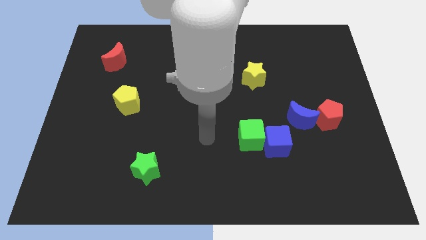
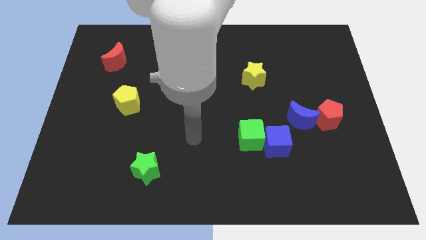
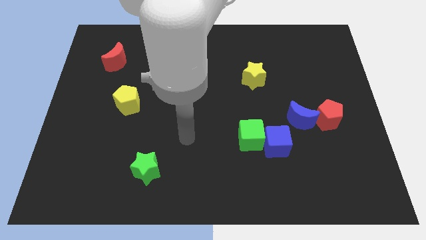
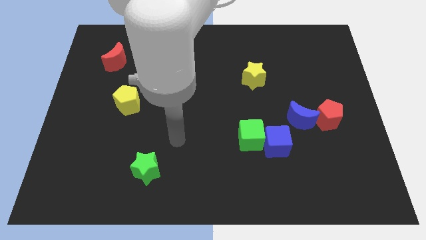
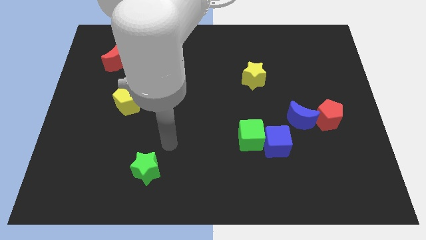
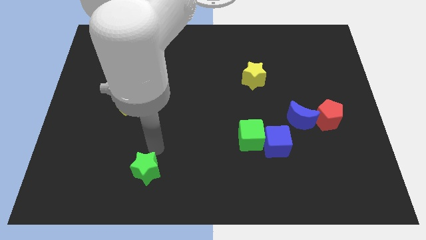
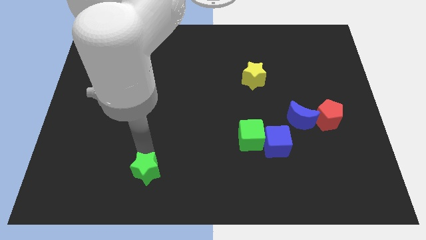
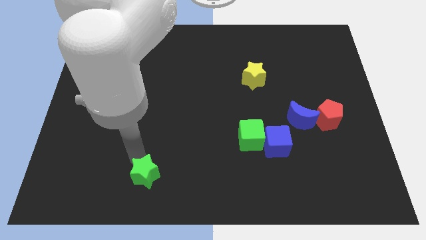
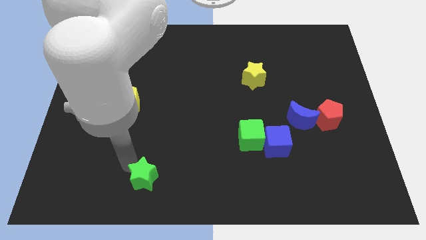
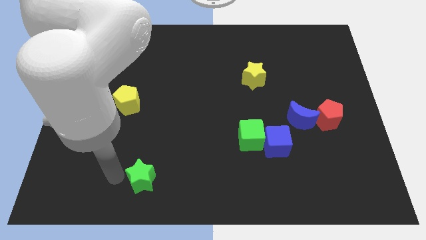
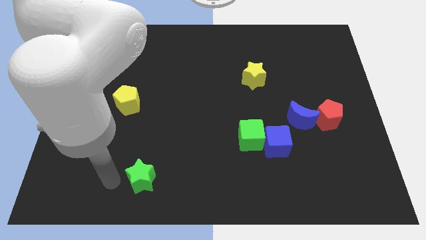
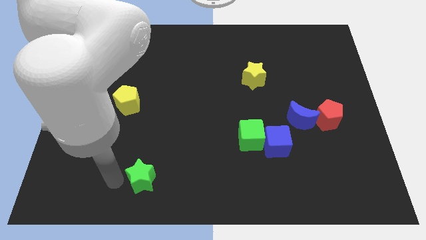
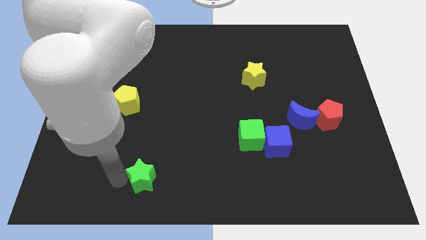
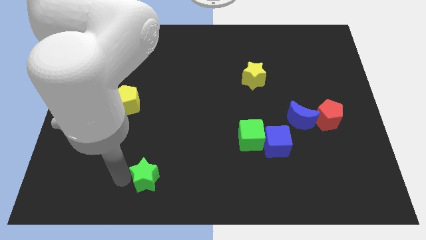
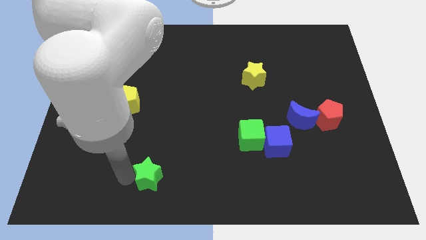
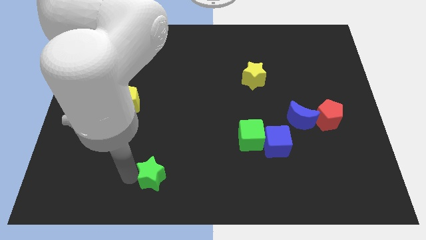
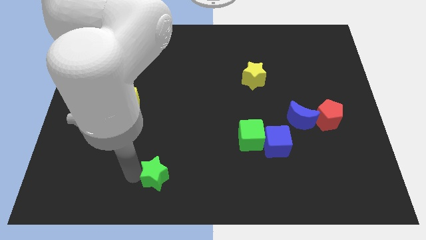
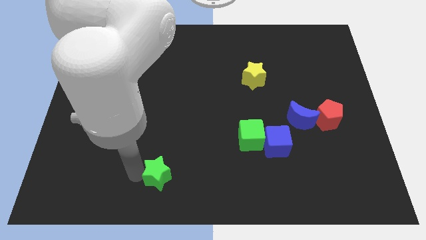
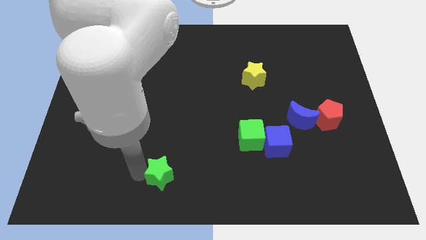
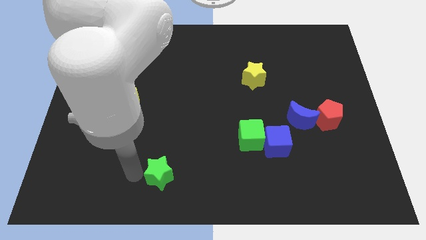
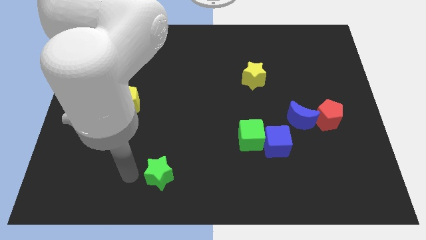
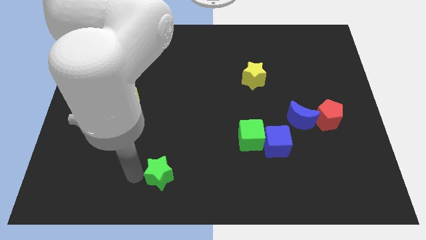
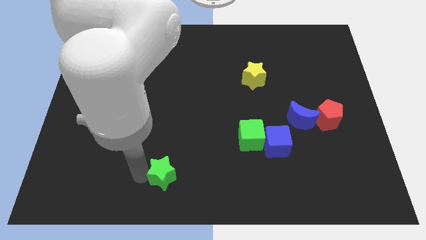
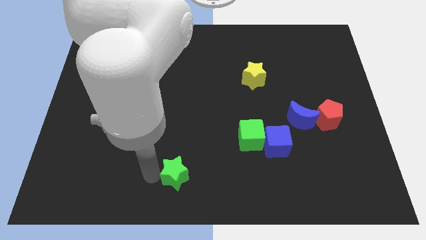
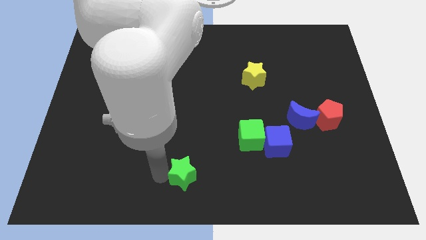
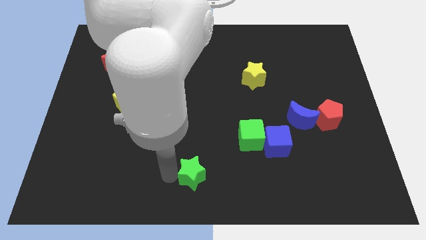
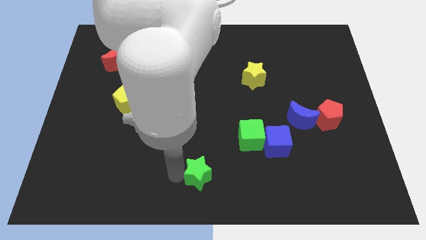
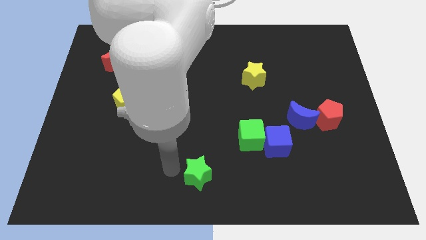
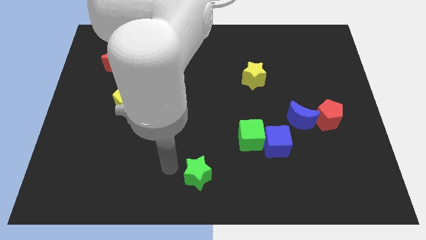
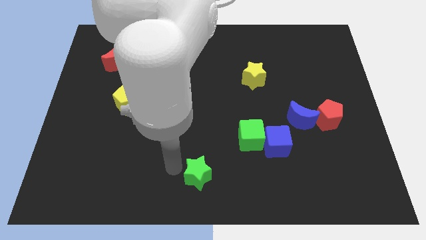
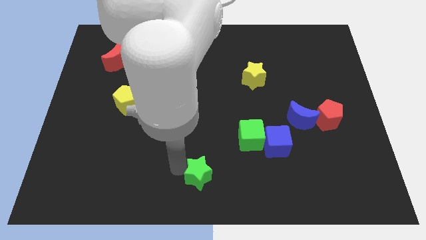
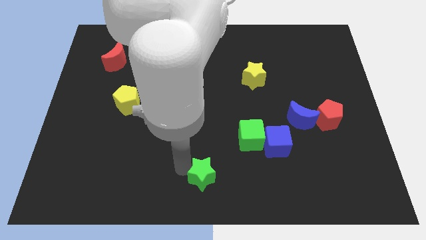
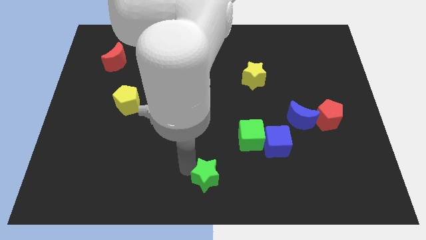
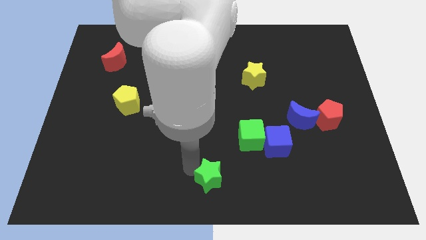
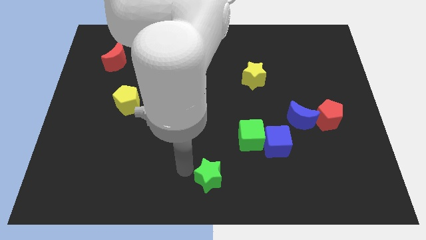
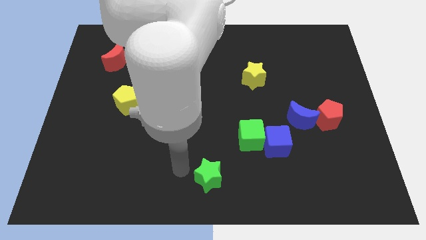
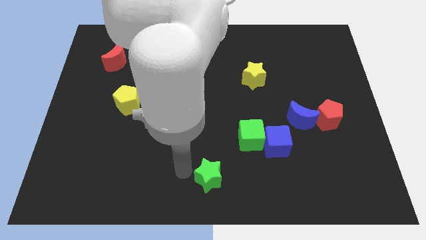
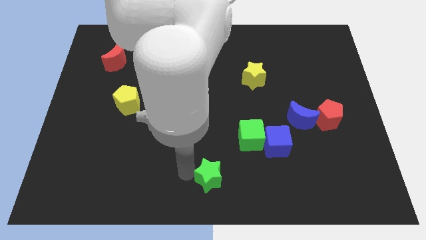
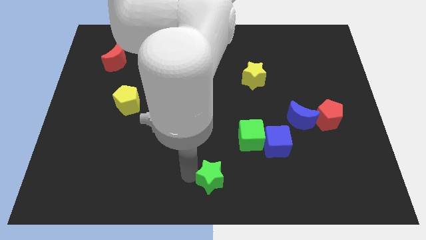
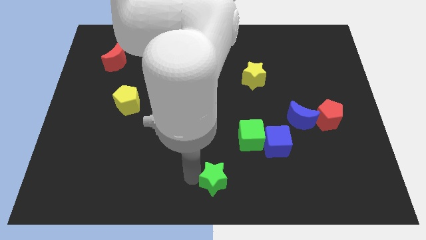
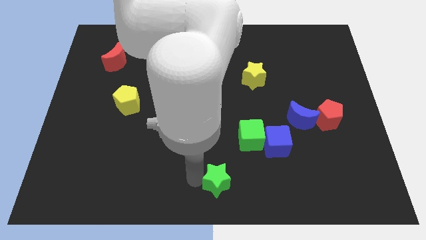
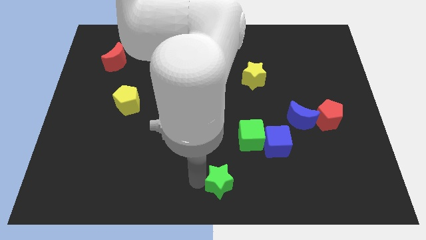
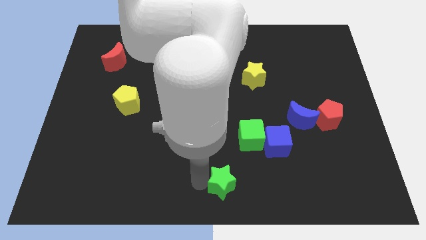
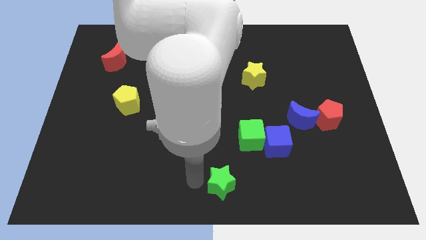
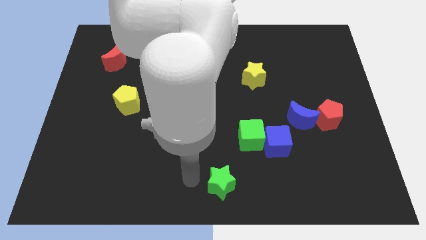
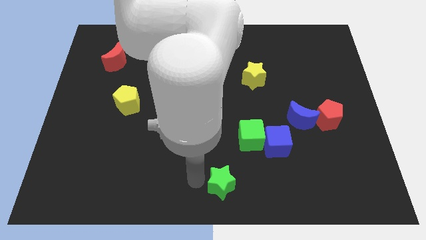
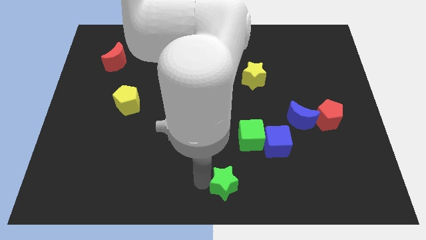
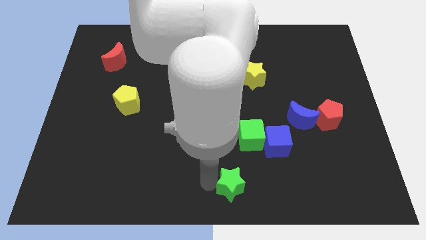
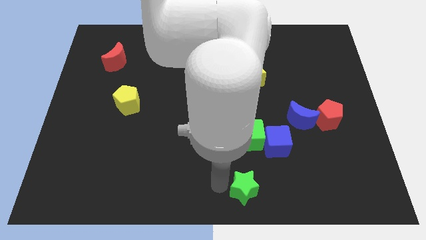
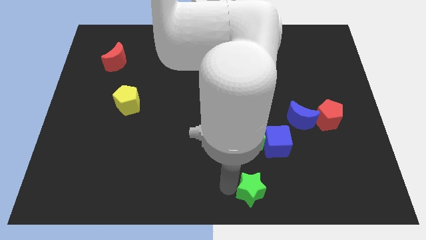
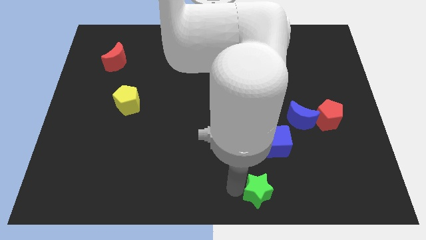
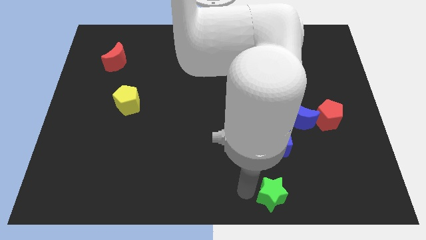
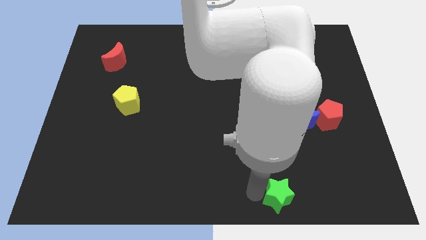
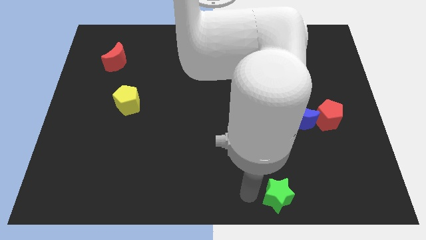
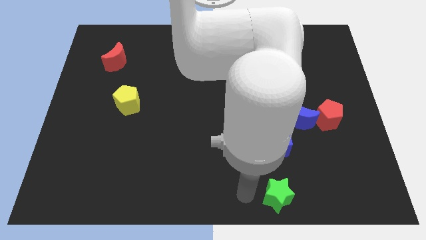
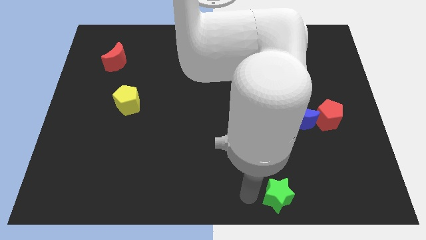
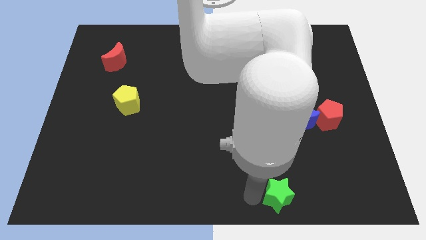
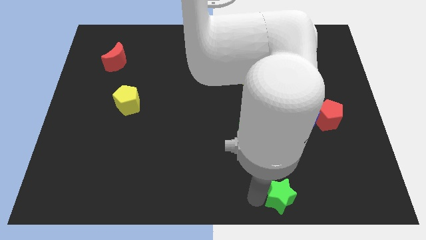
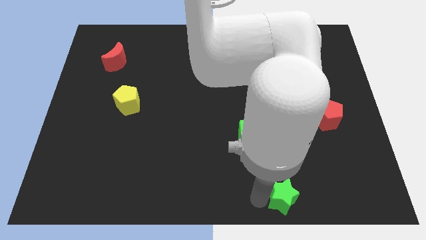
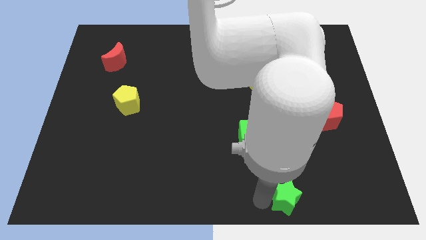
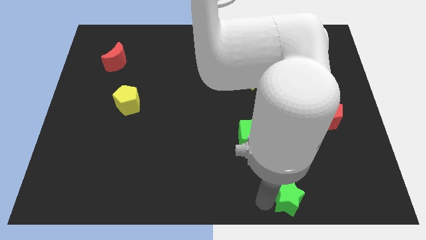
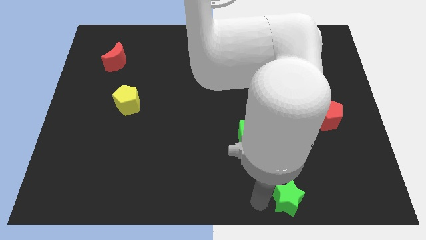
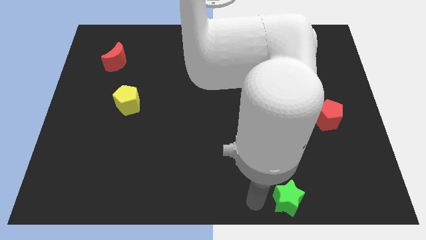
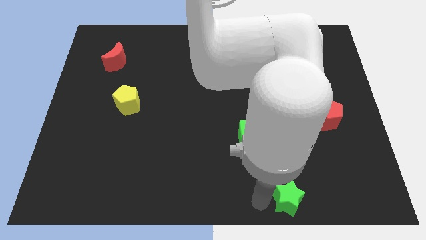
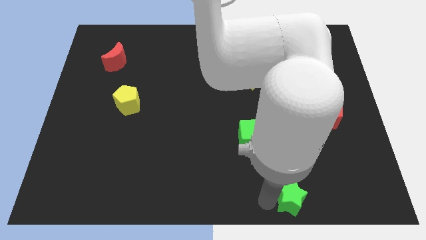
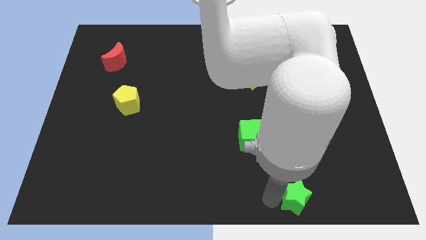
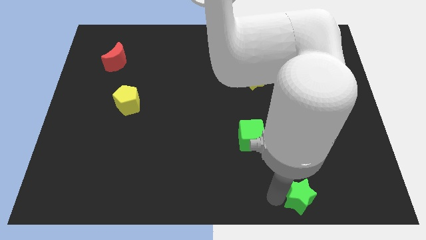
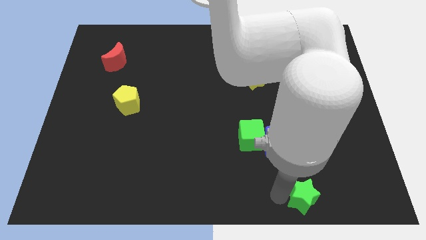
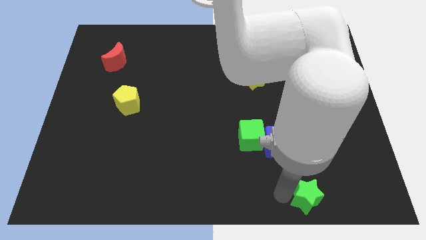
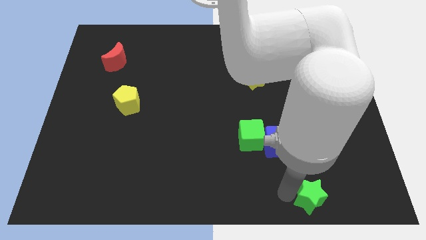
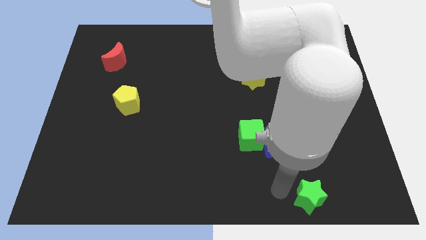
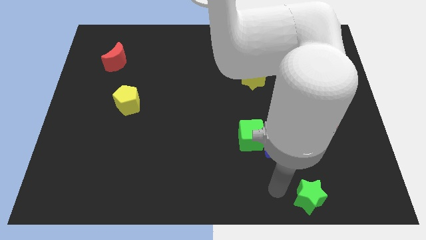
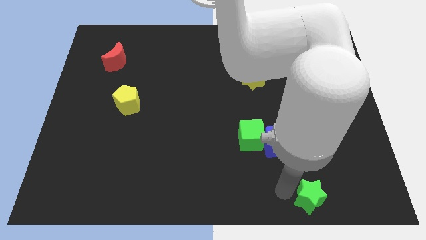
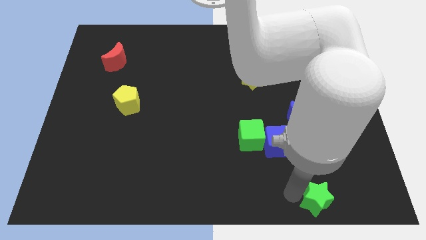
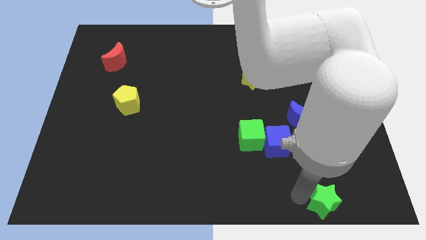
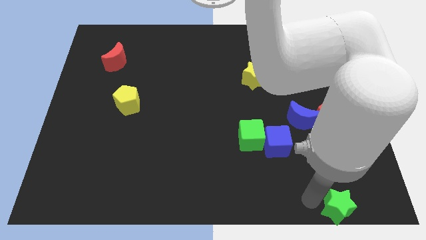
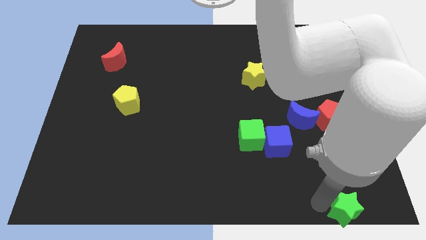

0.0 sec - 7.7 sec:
move the green star to the bottom right corner
